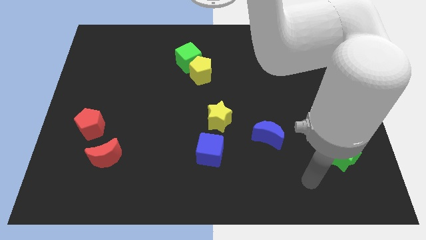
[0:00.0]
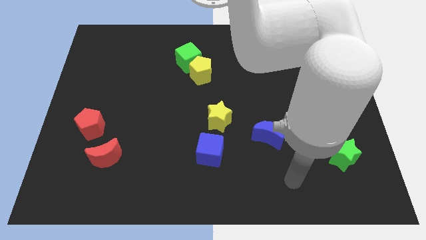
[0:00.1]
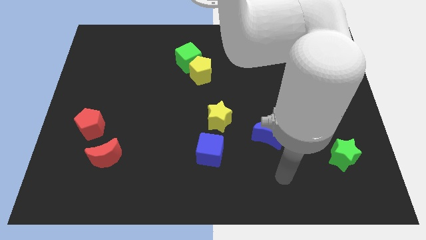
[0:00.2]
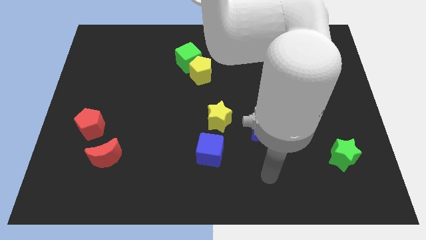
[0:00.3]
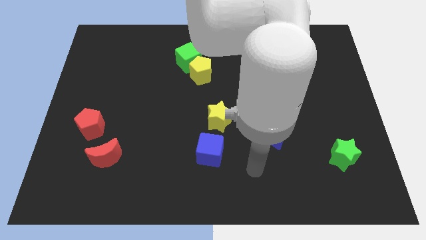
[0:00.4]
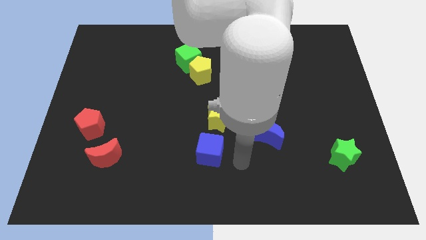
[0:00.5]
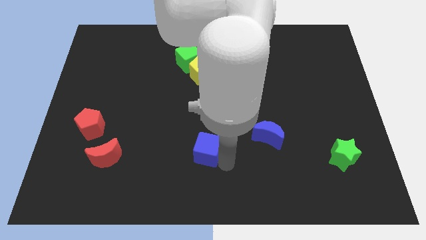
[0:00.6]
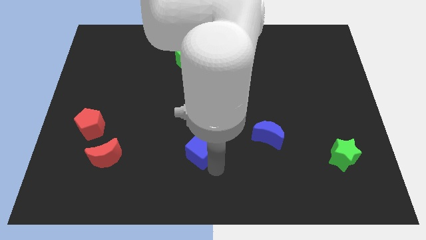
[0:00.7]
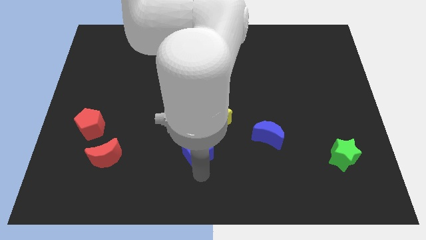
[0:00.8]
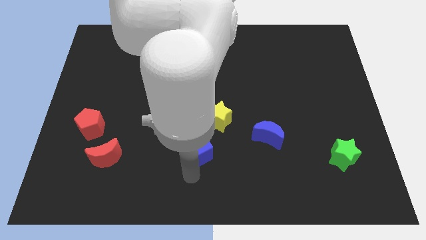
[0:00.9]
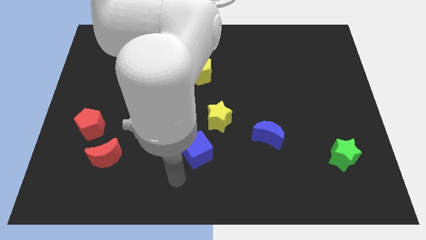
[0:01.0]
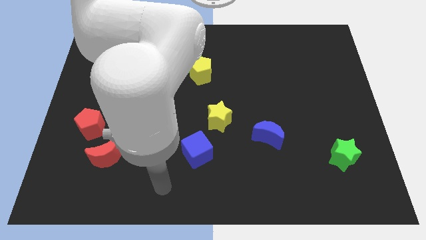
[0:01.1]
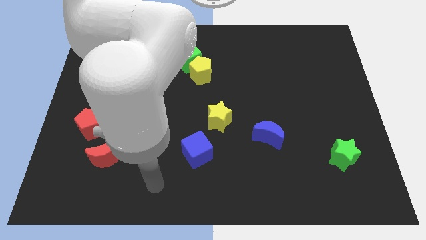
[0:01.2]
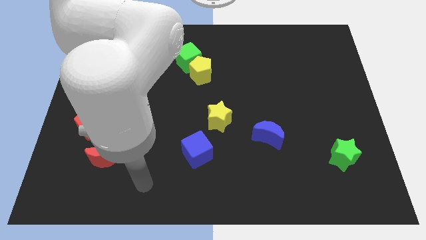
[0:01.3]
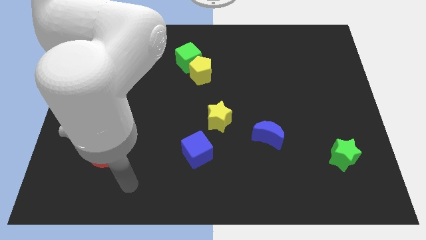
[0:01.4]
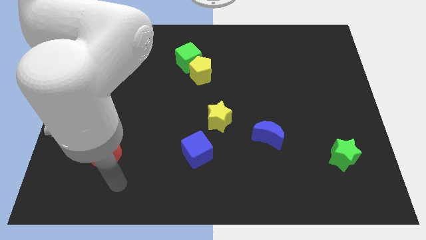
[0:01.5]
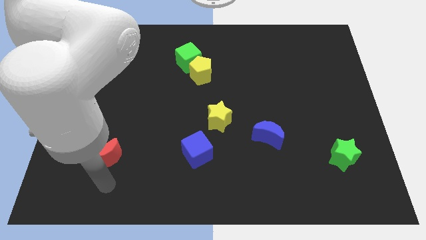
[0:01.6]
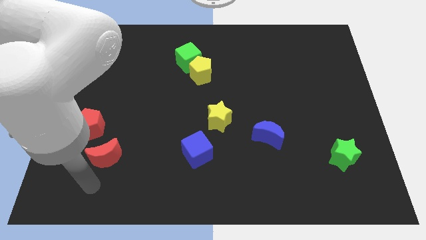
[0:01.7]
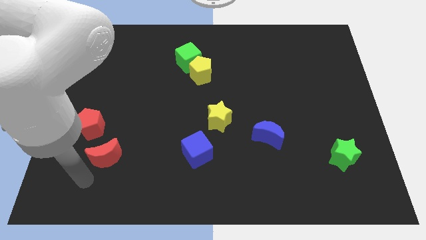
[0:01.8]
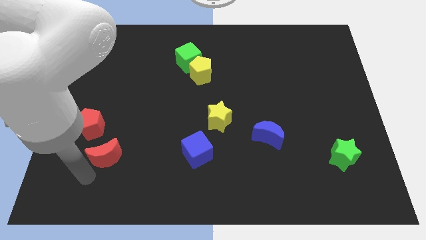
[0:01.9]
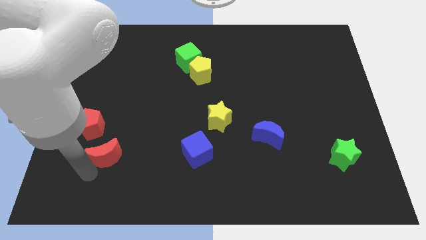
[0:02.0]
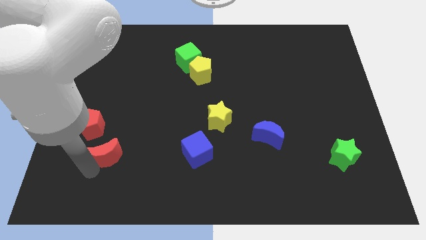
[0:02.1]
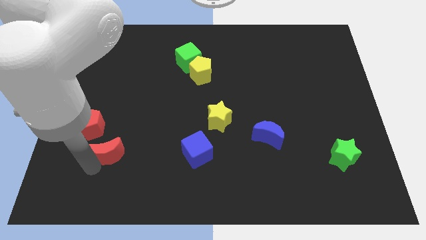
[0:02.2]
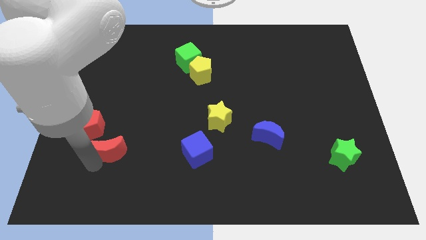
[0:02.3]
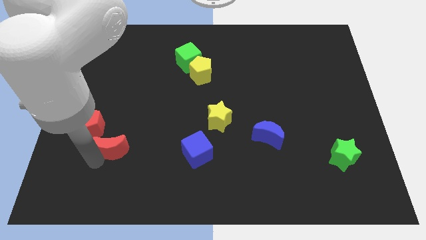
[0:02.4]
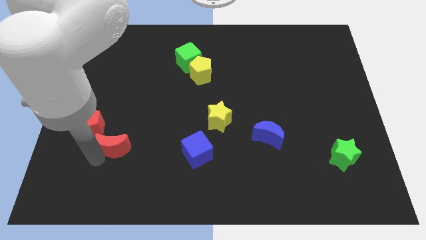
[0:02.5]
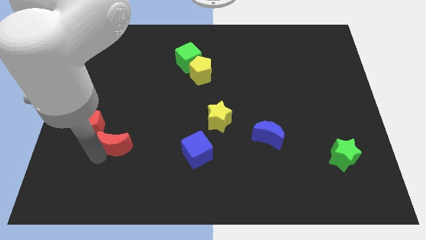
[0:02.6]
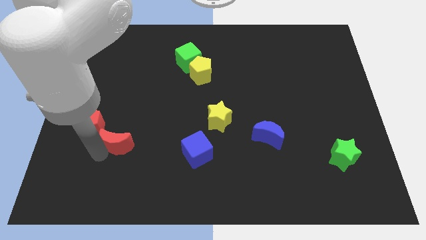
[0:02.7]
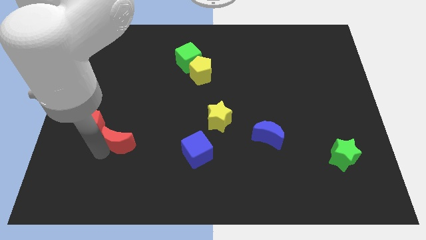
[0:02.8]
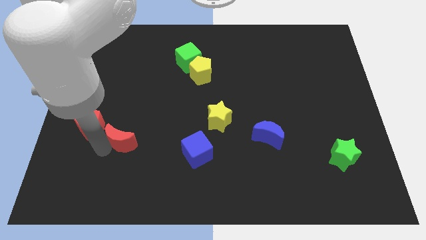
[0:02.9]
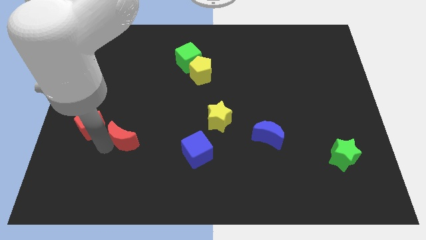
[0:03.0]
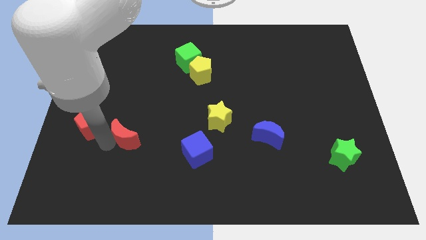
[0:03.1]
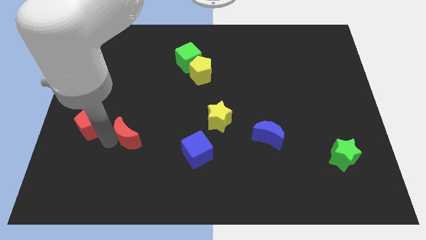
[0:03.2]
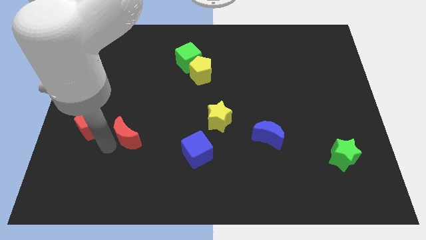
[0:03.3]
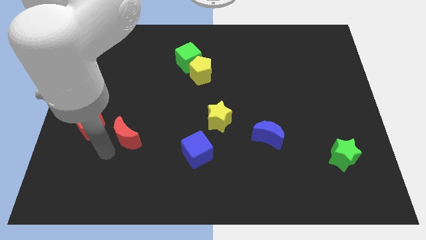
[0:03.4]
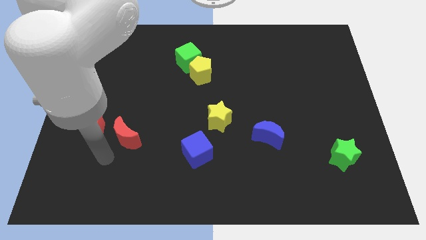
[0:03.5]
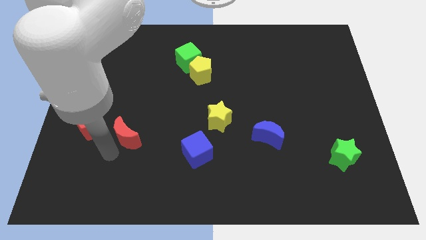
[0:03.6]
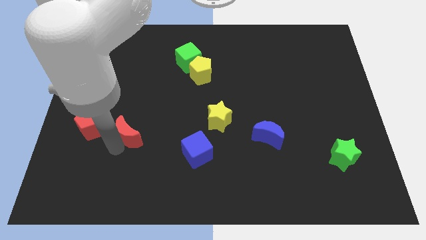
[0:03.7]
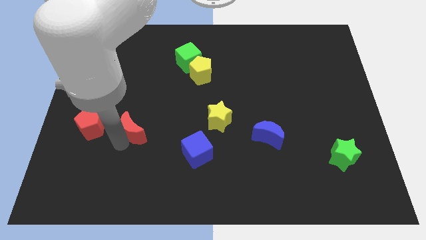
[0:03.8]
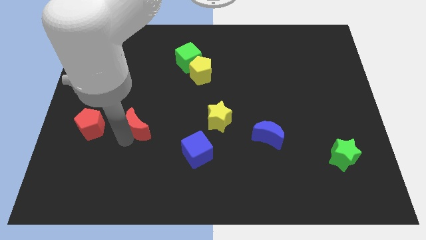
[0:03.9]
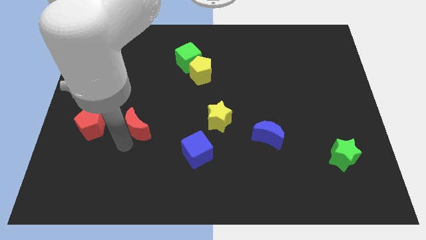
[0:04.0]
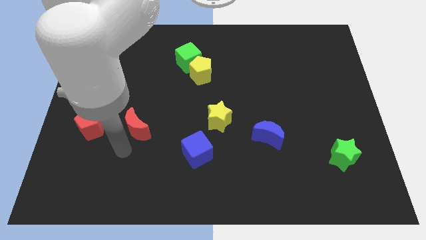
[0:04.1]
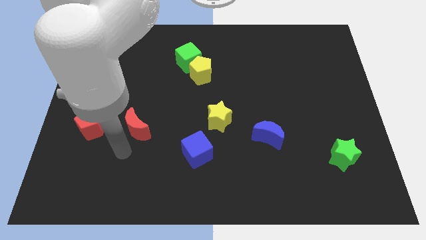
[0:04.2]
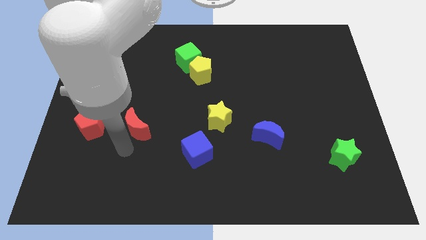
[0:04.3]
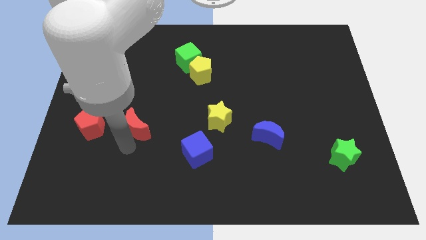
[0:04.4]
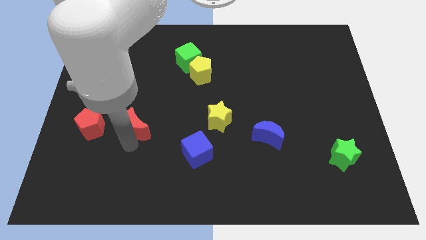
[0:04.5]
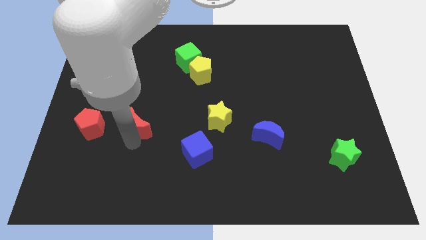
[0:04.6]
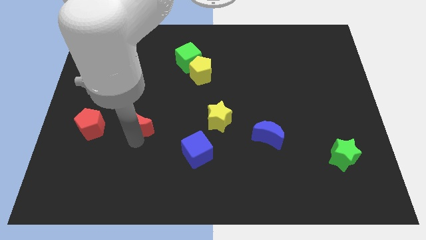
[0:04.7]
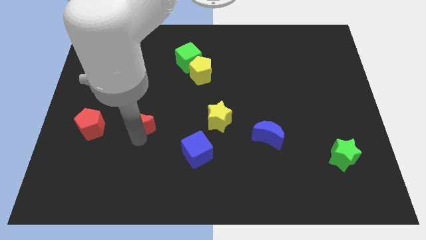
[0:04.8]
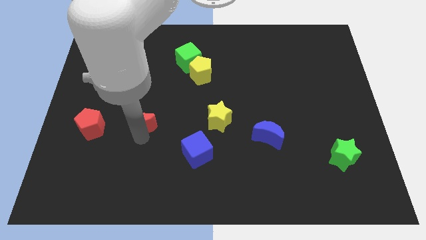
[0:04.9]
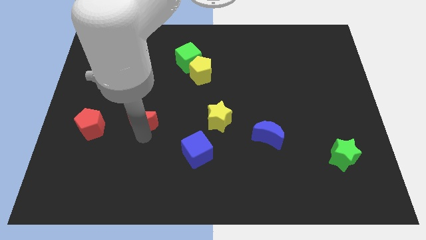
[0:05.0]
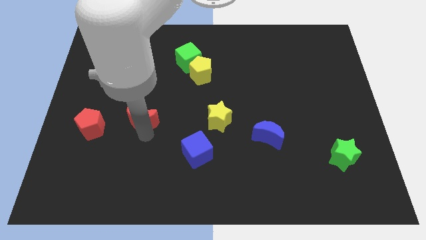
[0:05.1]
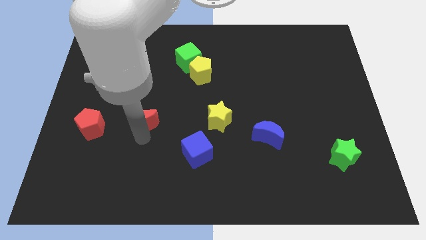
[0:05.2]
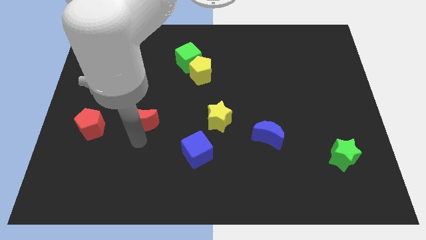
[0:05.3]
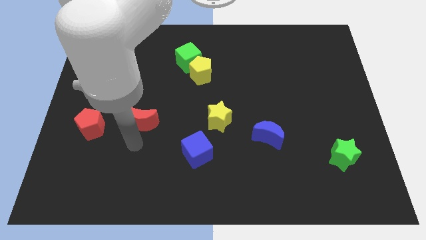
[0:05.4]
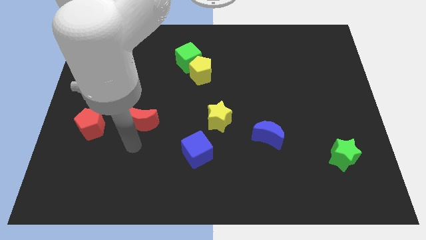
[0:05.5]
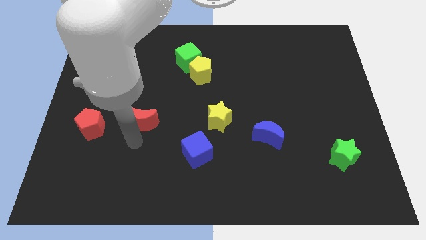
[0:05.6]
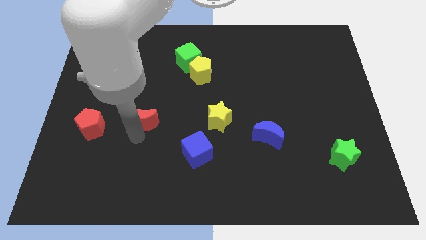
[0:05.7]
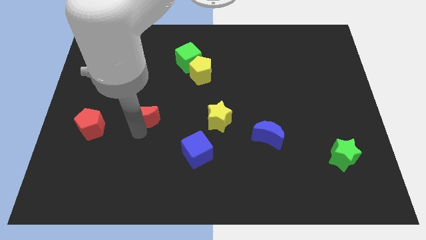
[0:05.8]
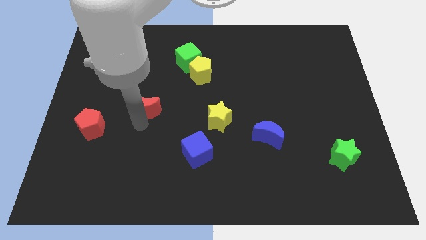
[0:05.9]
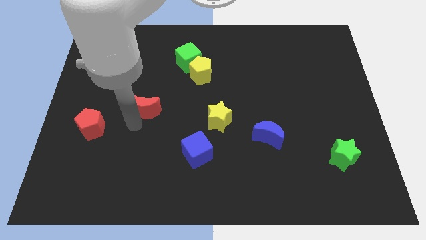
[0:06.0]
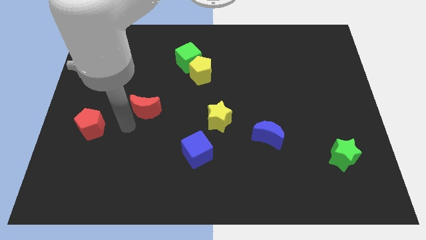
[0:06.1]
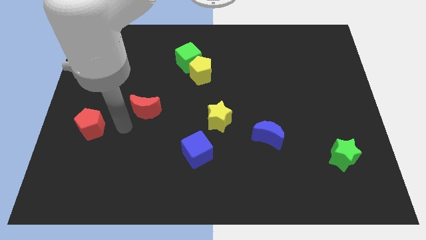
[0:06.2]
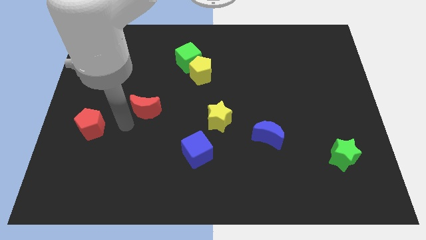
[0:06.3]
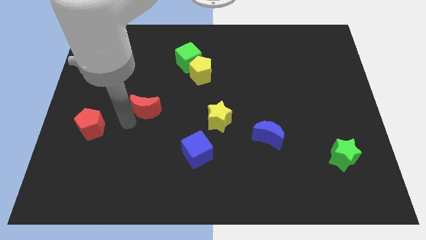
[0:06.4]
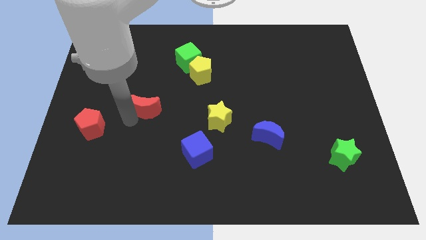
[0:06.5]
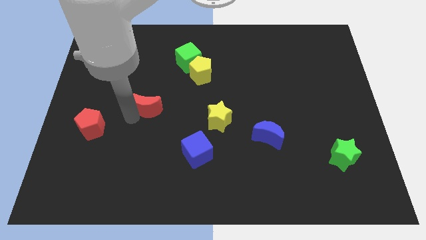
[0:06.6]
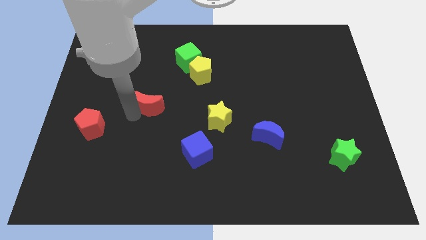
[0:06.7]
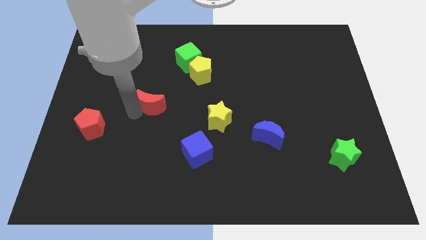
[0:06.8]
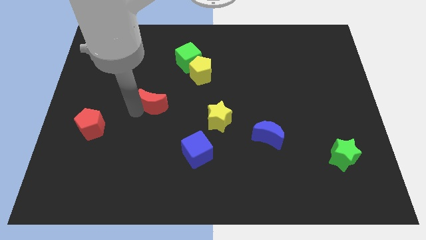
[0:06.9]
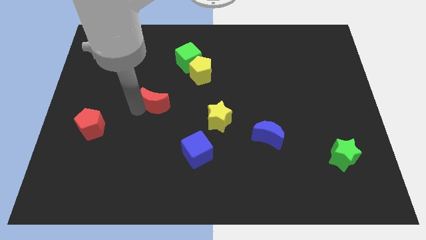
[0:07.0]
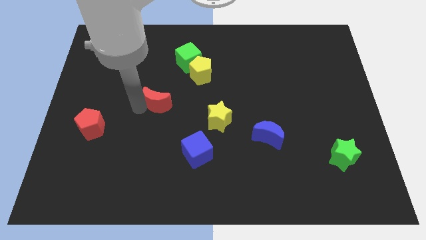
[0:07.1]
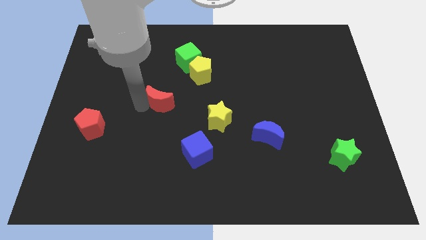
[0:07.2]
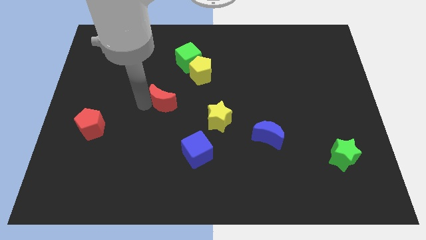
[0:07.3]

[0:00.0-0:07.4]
push the red moon diagonally down and to the left of the yellow pentagon
